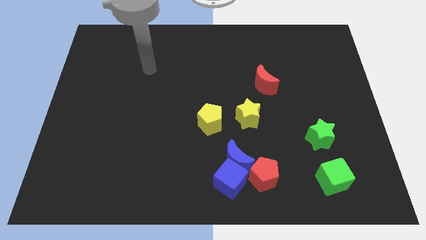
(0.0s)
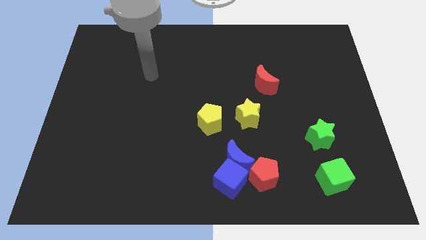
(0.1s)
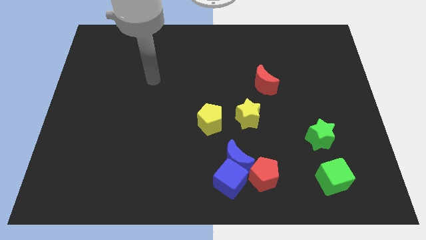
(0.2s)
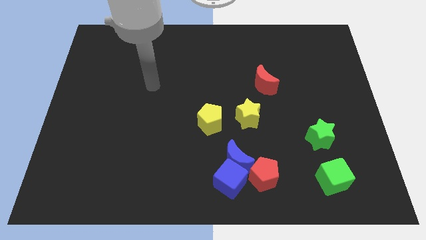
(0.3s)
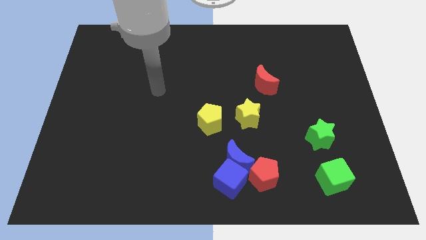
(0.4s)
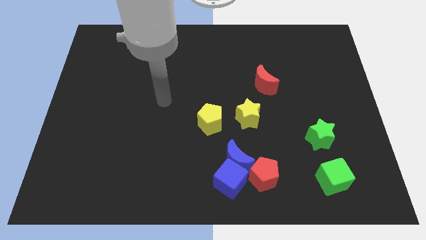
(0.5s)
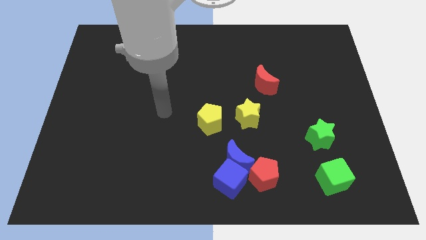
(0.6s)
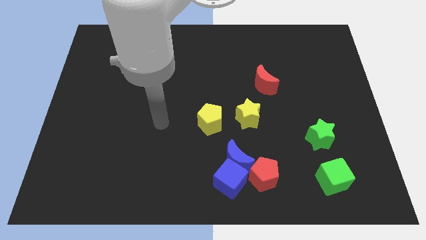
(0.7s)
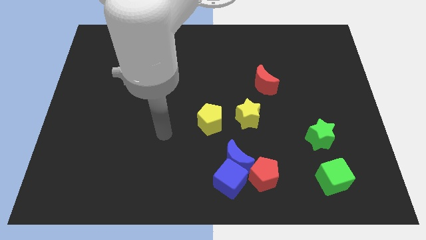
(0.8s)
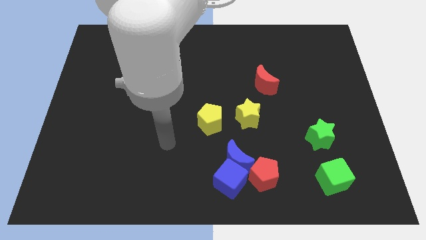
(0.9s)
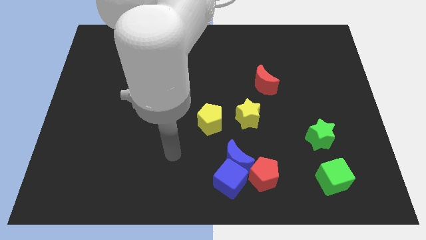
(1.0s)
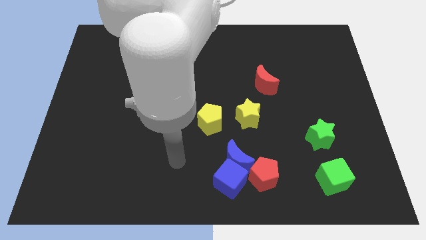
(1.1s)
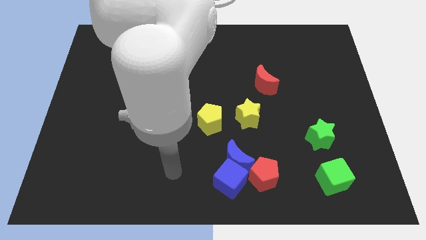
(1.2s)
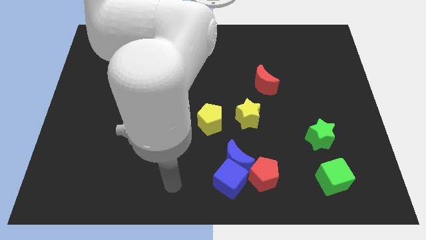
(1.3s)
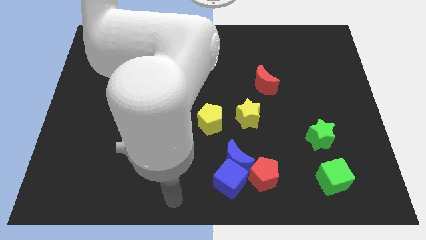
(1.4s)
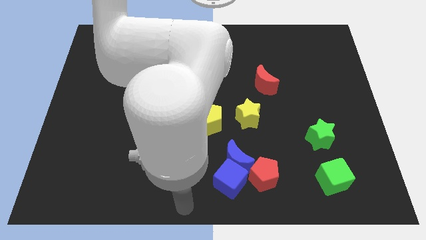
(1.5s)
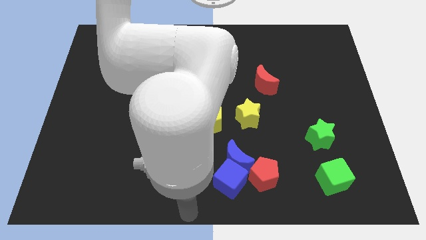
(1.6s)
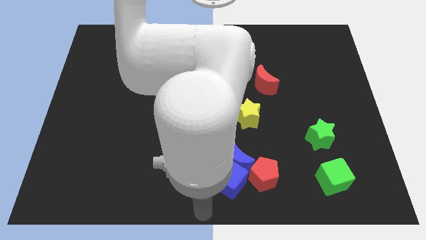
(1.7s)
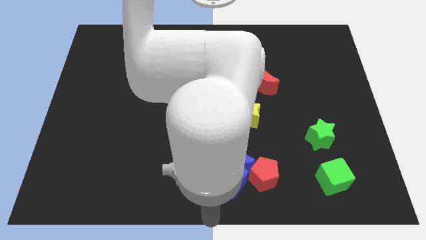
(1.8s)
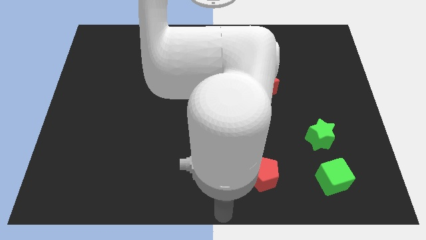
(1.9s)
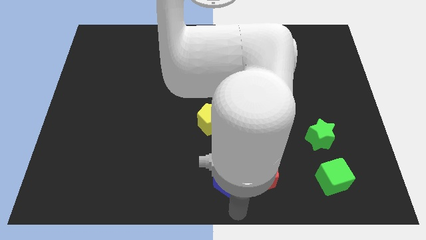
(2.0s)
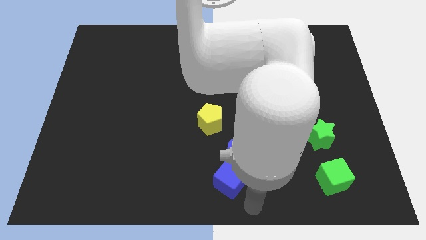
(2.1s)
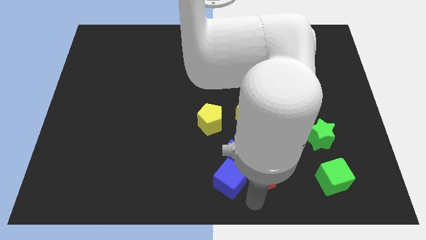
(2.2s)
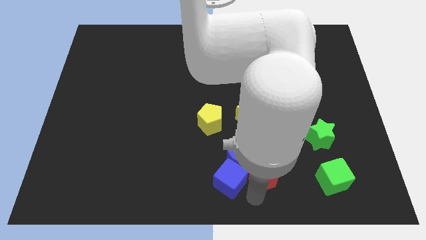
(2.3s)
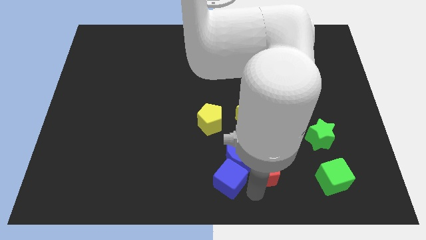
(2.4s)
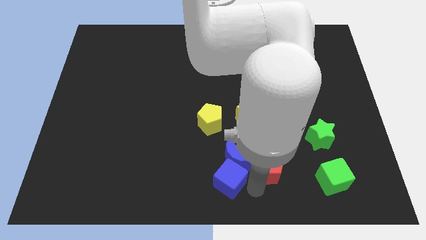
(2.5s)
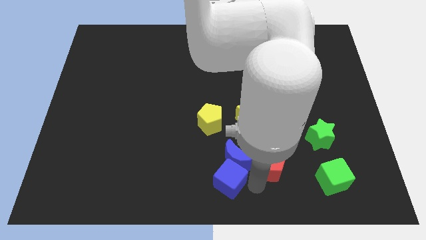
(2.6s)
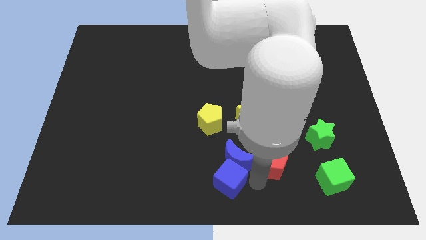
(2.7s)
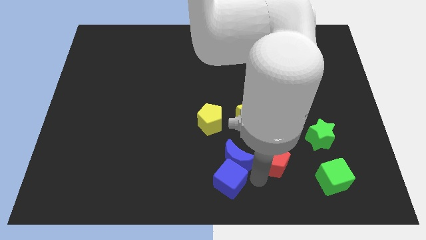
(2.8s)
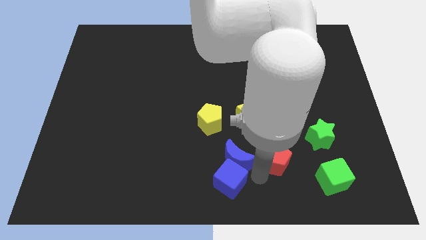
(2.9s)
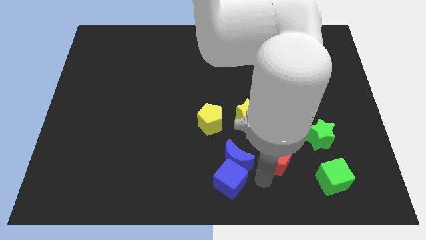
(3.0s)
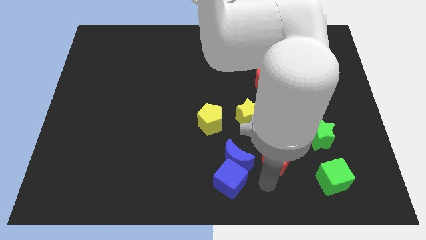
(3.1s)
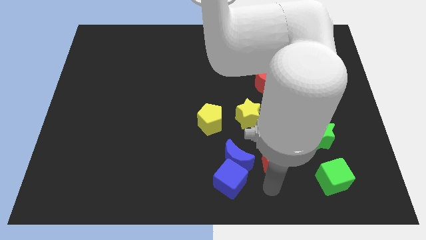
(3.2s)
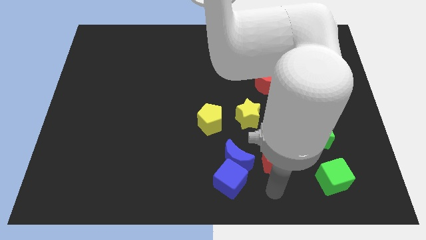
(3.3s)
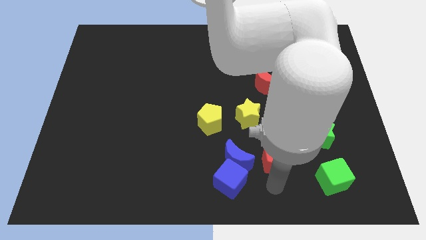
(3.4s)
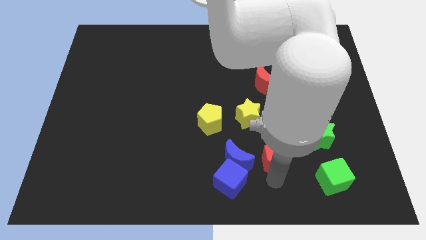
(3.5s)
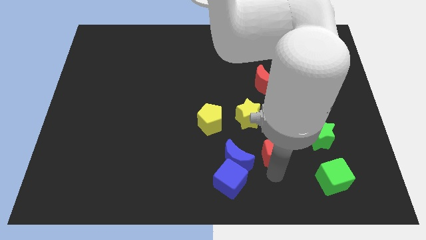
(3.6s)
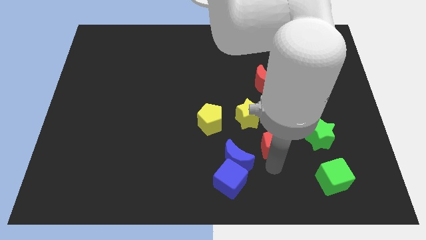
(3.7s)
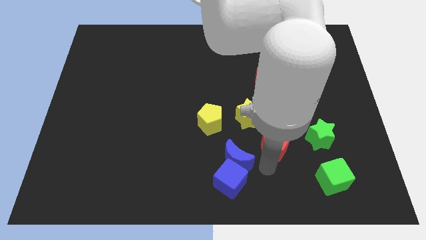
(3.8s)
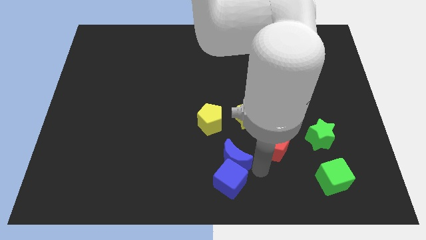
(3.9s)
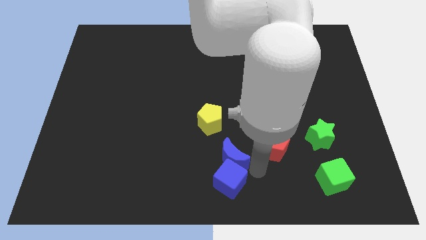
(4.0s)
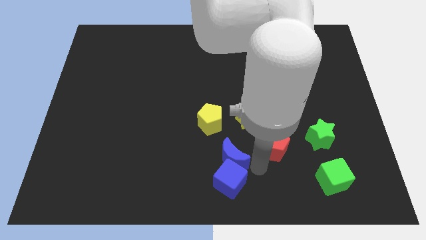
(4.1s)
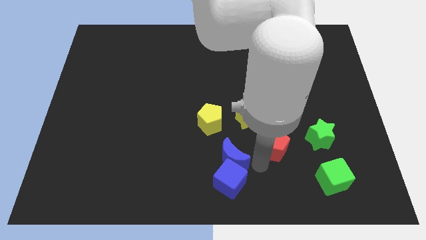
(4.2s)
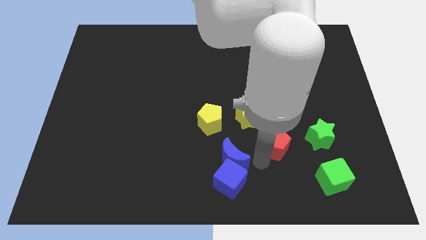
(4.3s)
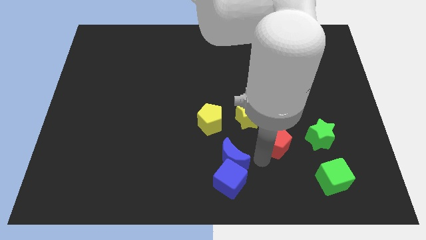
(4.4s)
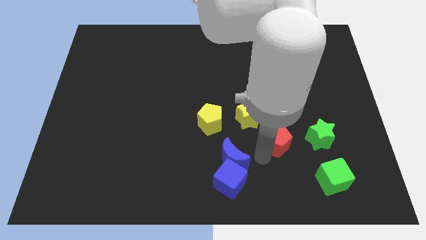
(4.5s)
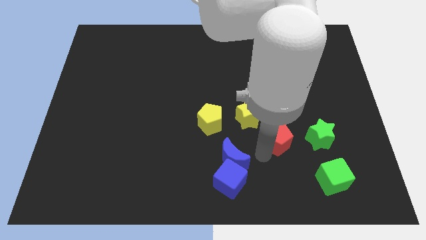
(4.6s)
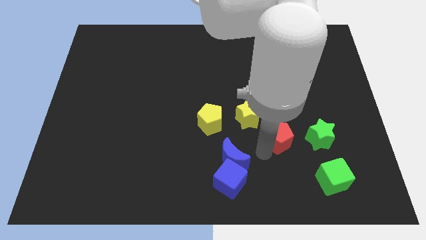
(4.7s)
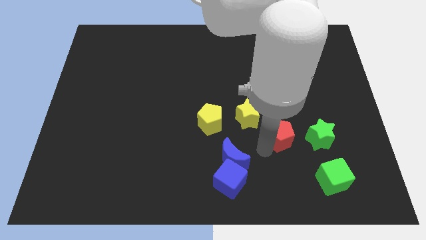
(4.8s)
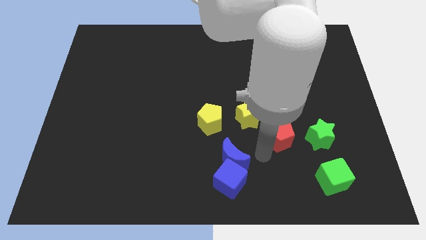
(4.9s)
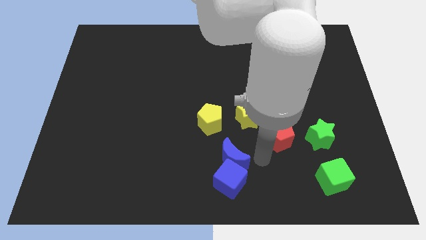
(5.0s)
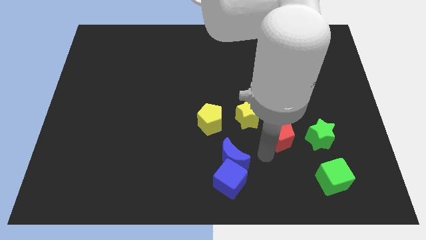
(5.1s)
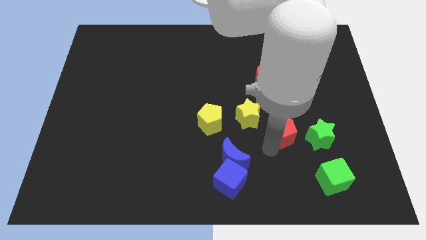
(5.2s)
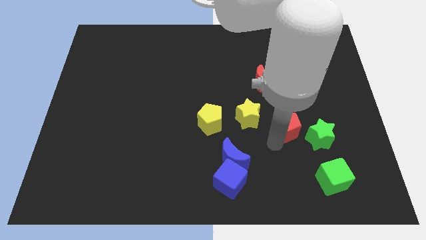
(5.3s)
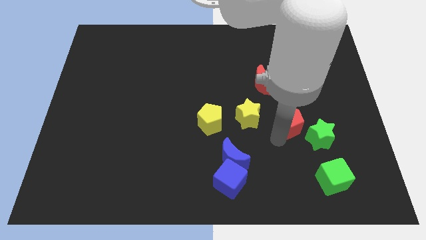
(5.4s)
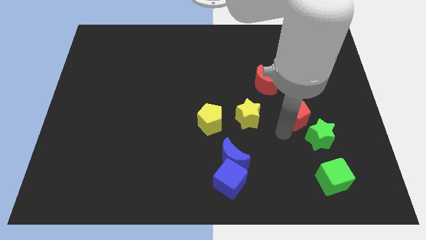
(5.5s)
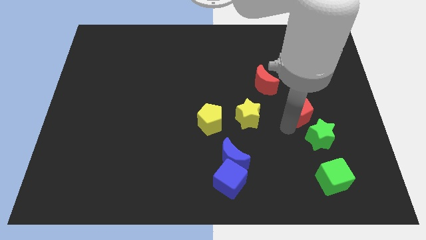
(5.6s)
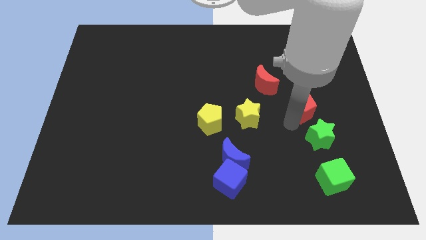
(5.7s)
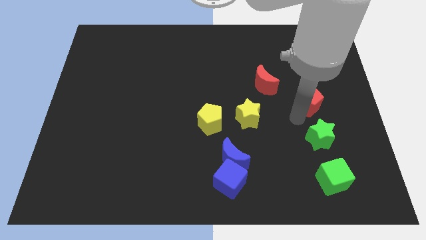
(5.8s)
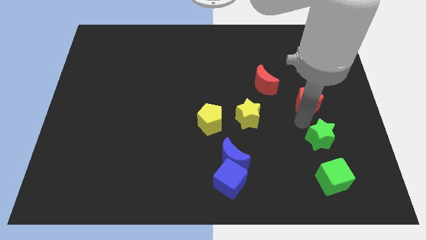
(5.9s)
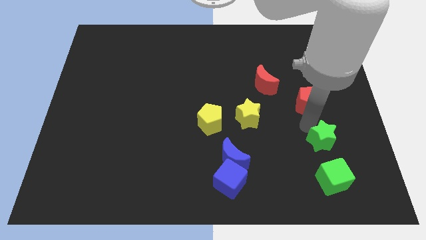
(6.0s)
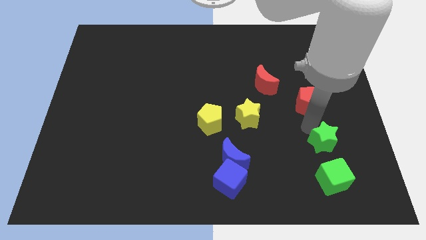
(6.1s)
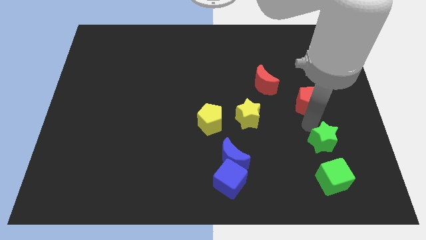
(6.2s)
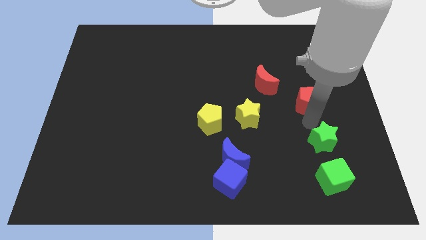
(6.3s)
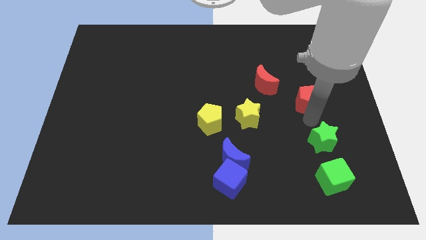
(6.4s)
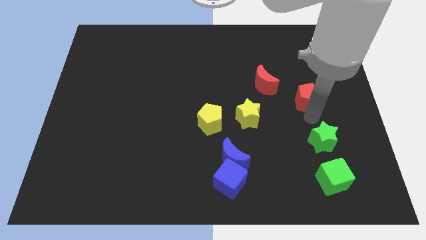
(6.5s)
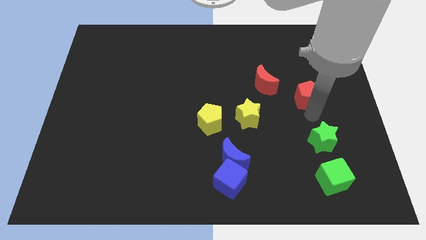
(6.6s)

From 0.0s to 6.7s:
slide the red pentagon just right of the red moon
